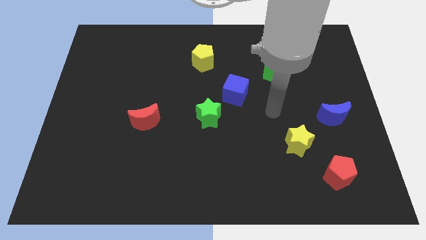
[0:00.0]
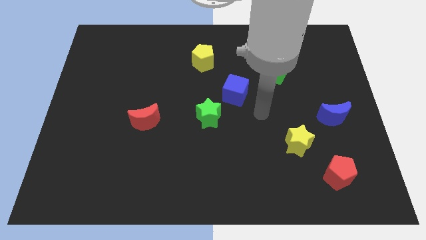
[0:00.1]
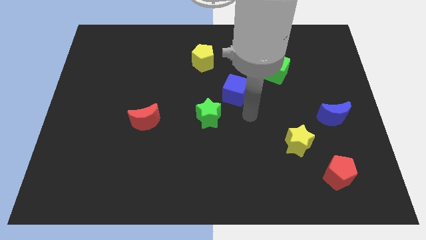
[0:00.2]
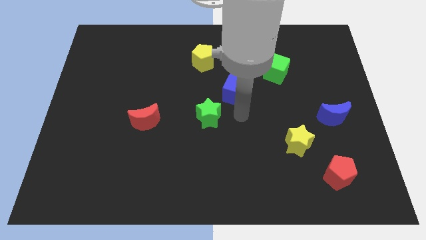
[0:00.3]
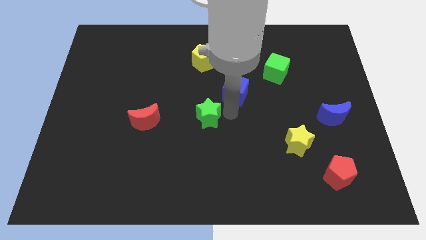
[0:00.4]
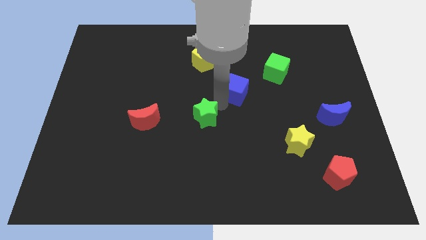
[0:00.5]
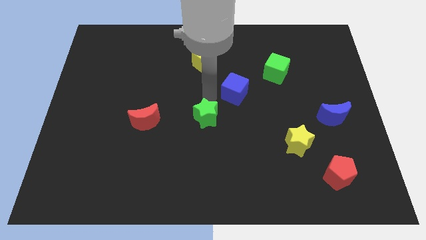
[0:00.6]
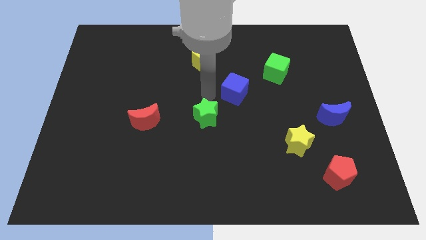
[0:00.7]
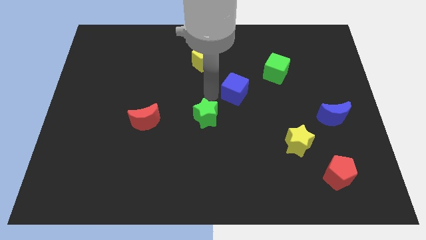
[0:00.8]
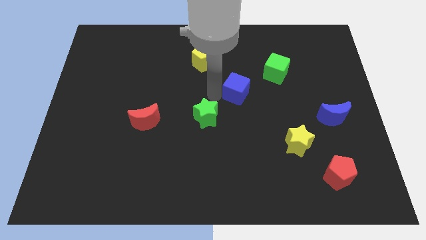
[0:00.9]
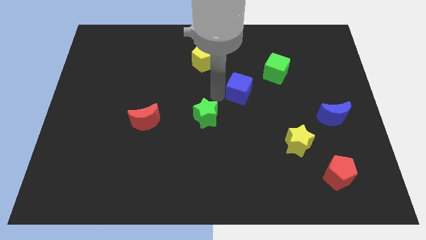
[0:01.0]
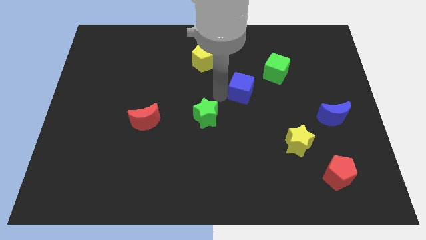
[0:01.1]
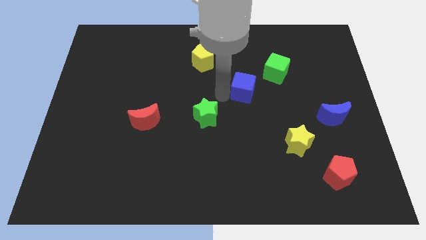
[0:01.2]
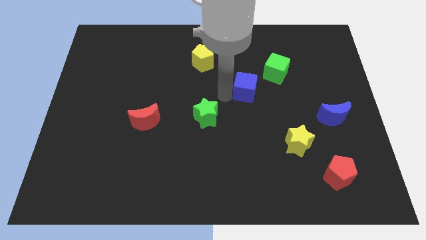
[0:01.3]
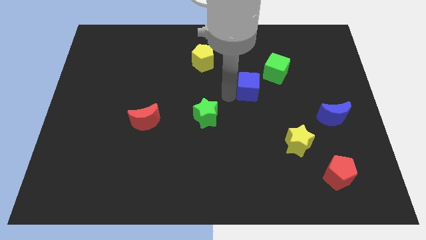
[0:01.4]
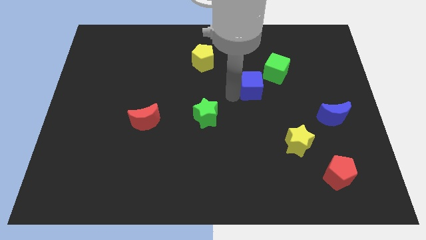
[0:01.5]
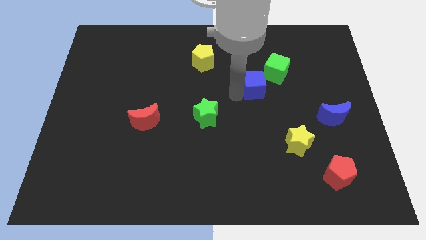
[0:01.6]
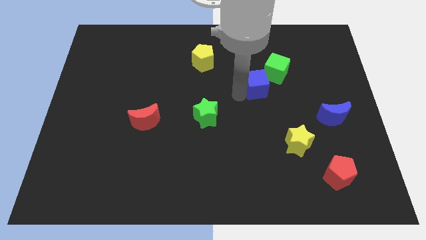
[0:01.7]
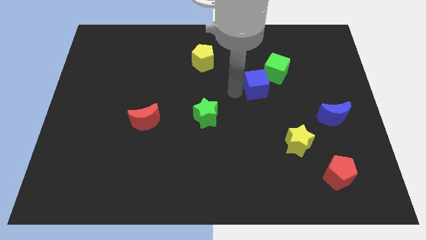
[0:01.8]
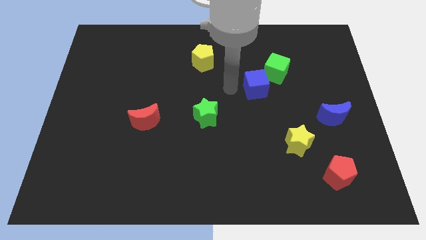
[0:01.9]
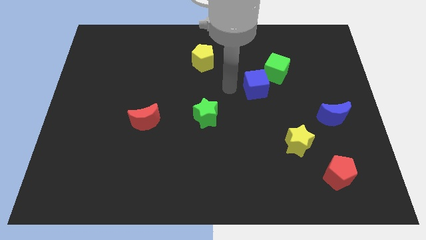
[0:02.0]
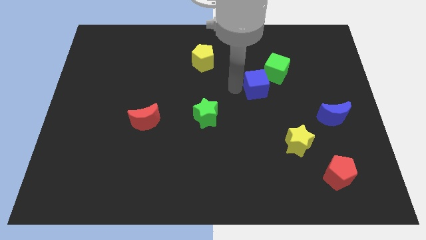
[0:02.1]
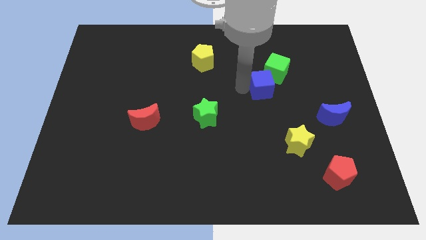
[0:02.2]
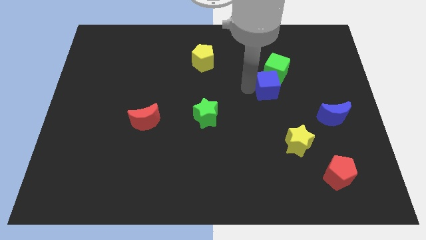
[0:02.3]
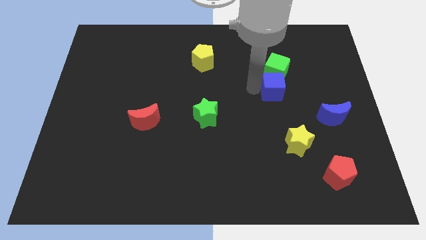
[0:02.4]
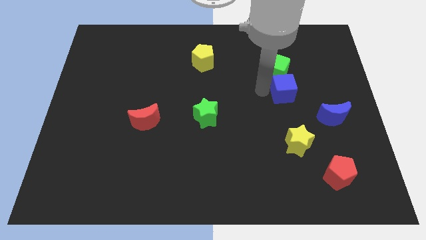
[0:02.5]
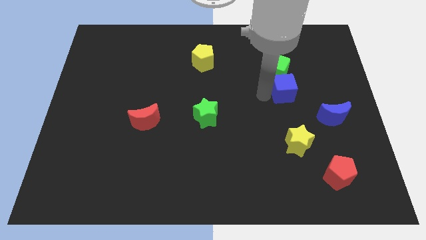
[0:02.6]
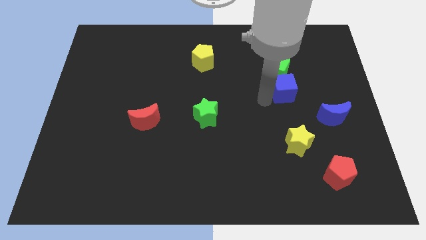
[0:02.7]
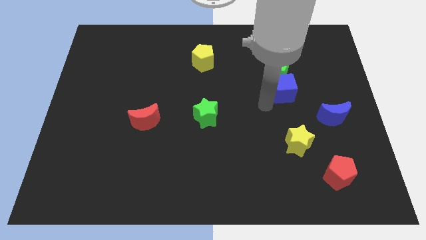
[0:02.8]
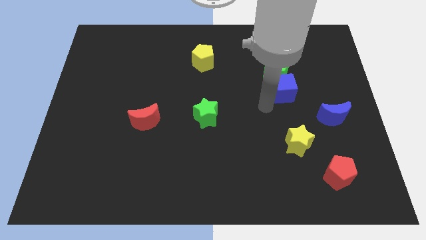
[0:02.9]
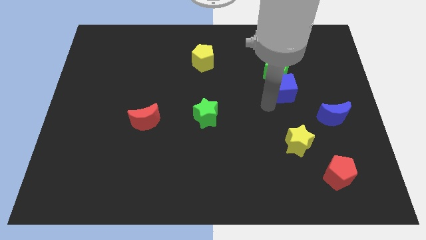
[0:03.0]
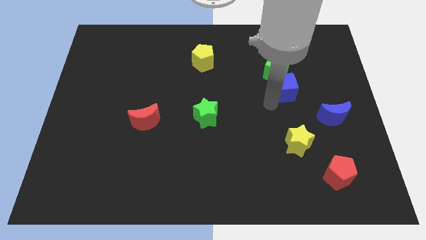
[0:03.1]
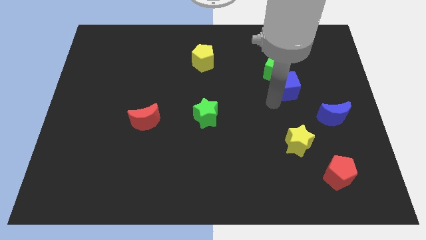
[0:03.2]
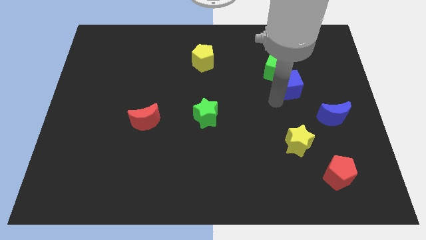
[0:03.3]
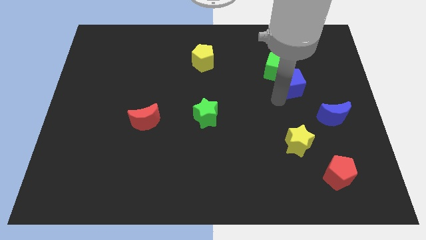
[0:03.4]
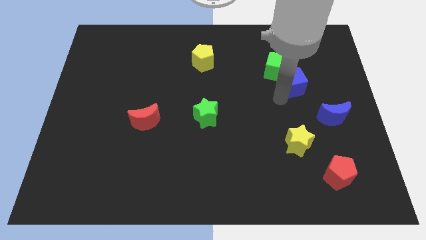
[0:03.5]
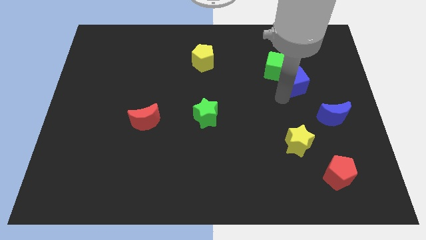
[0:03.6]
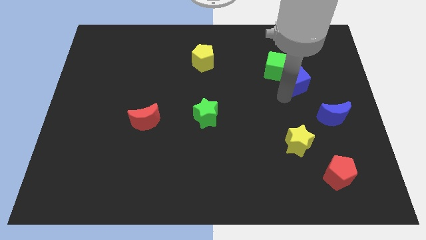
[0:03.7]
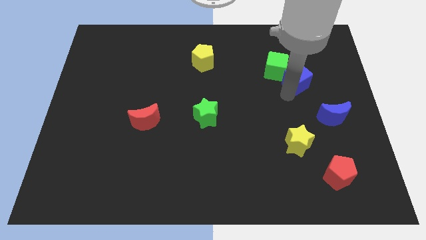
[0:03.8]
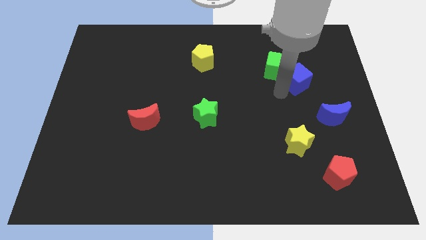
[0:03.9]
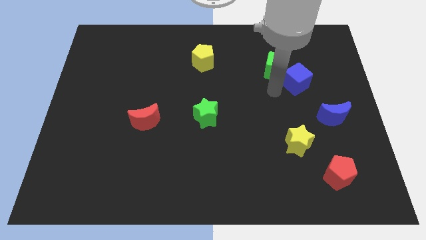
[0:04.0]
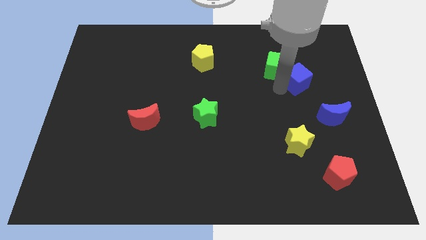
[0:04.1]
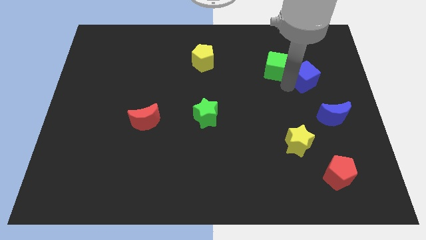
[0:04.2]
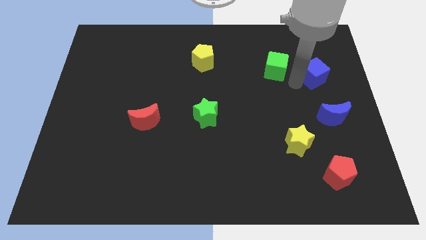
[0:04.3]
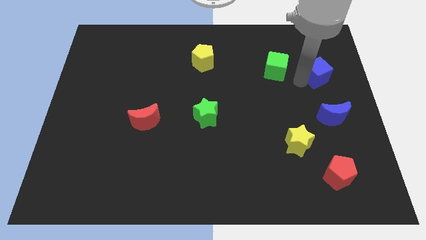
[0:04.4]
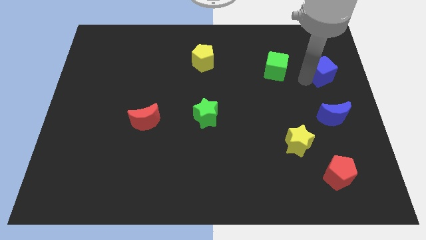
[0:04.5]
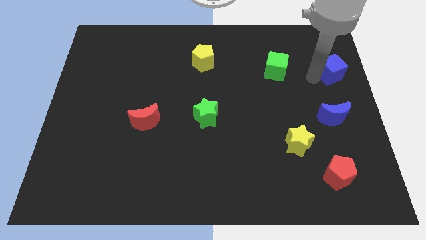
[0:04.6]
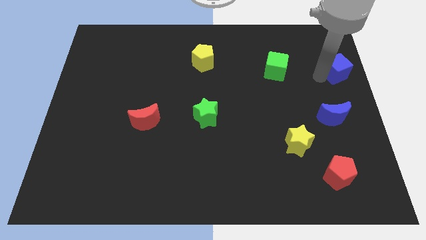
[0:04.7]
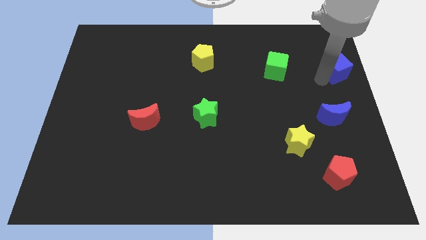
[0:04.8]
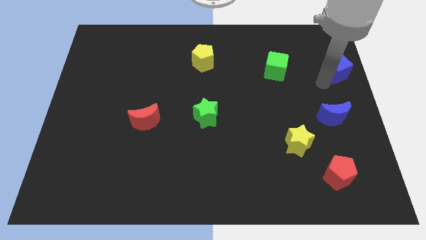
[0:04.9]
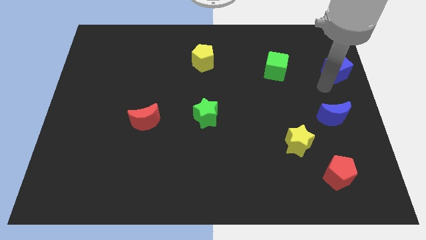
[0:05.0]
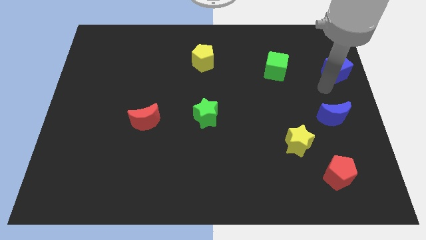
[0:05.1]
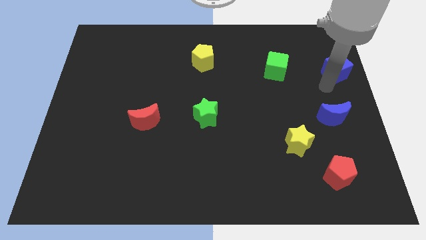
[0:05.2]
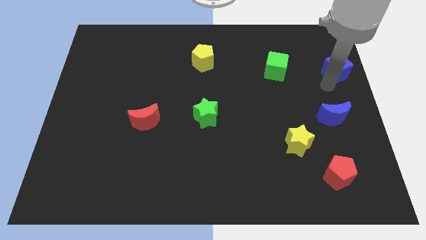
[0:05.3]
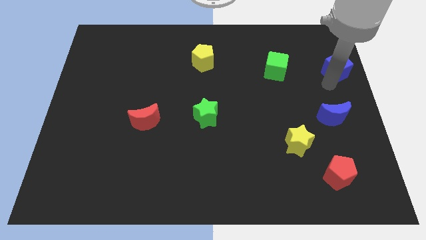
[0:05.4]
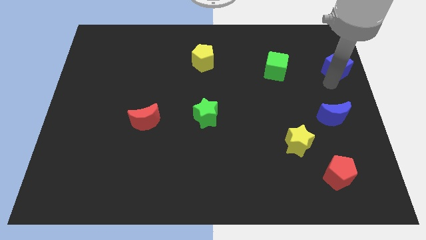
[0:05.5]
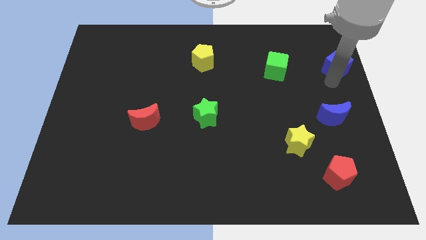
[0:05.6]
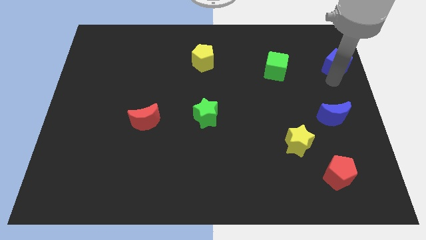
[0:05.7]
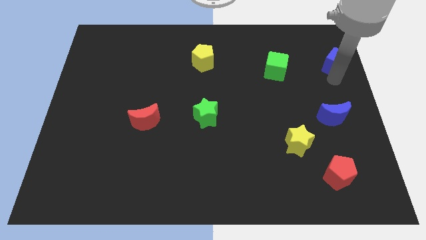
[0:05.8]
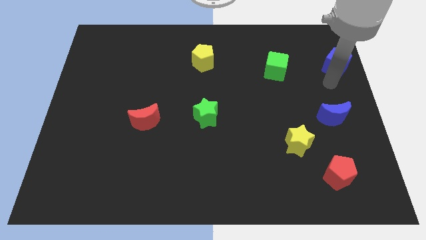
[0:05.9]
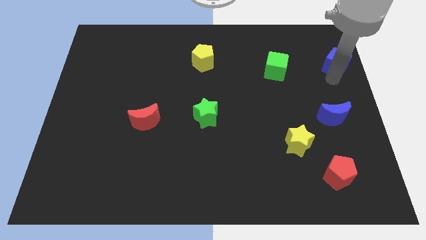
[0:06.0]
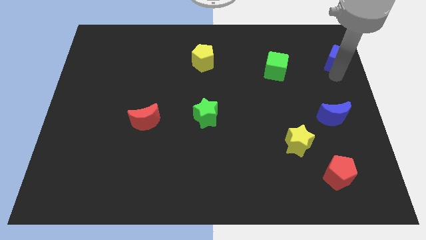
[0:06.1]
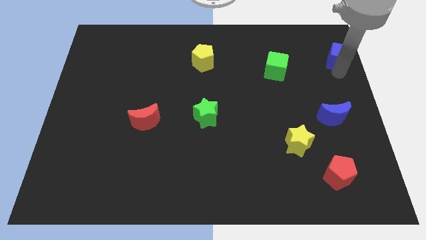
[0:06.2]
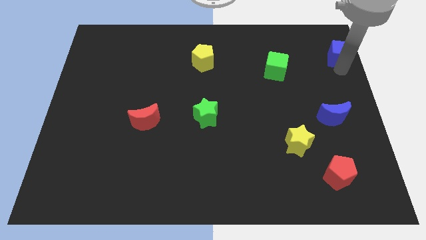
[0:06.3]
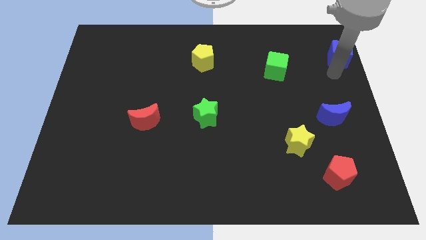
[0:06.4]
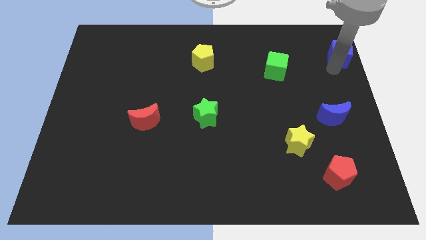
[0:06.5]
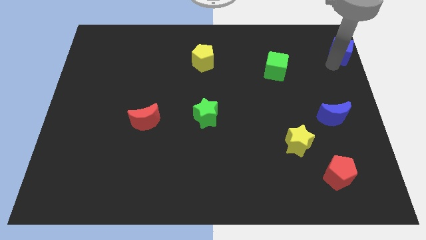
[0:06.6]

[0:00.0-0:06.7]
slide the blue cube to the upper right corner
